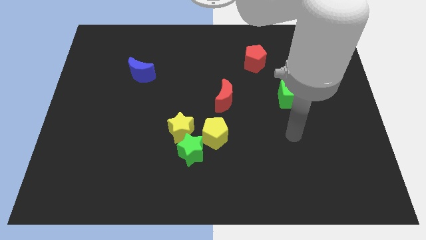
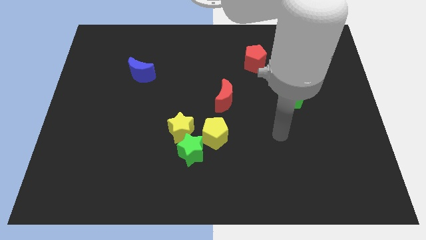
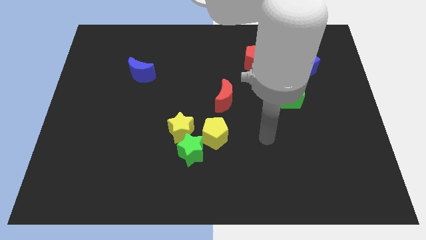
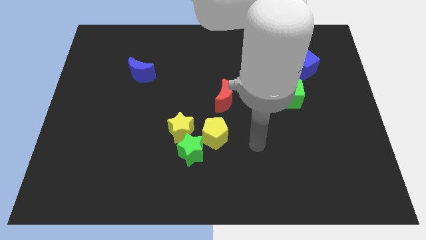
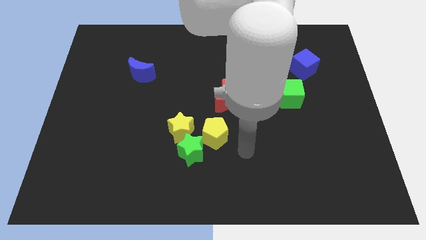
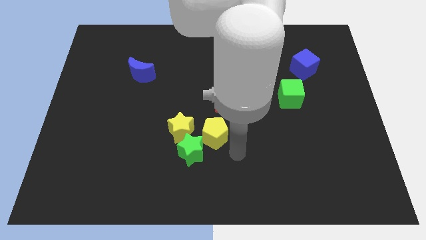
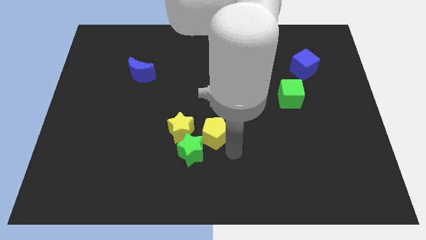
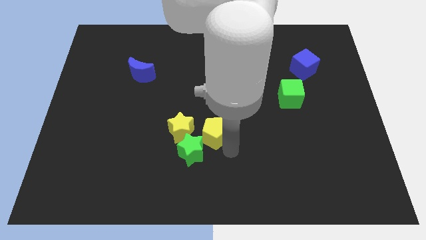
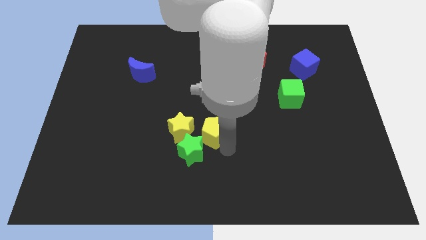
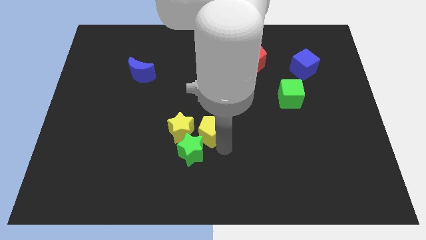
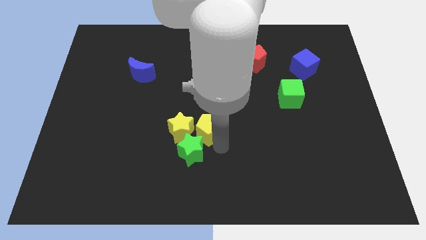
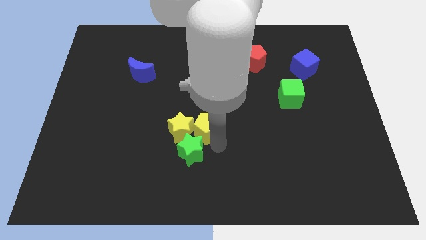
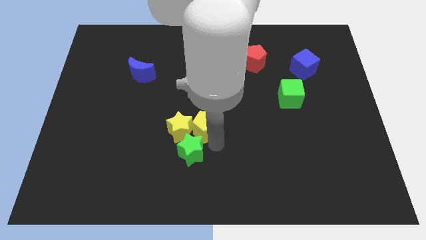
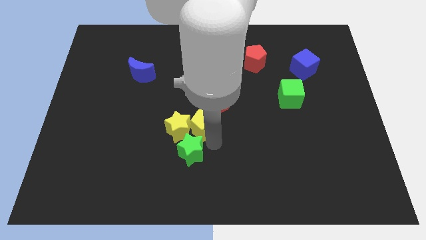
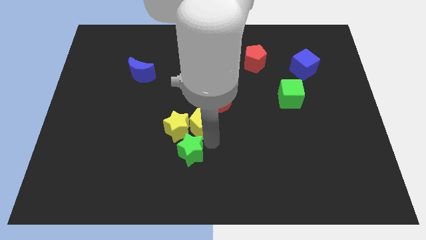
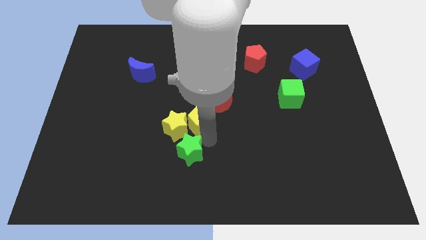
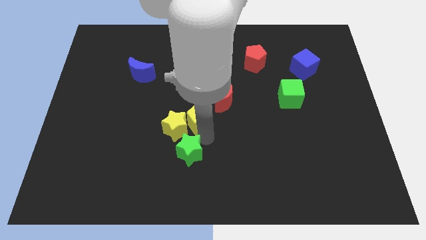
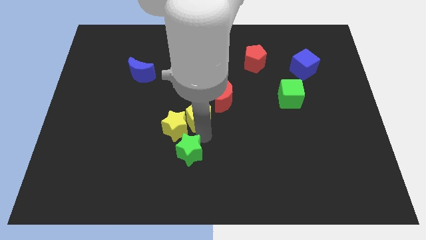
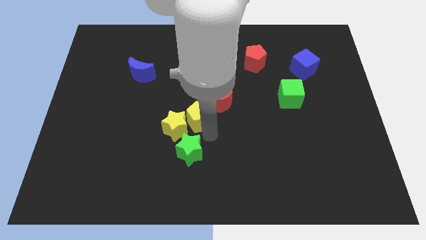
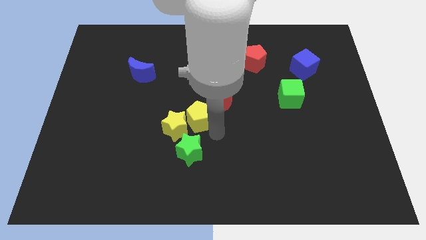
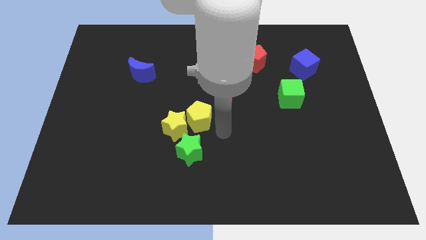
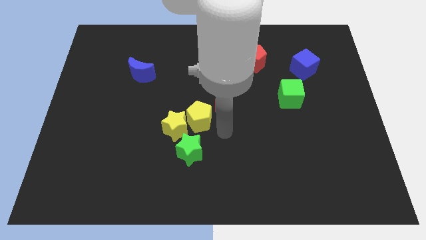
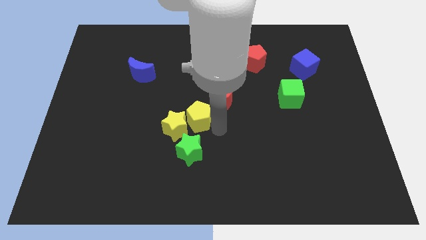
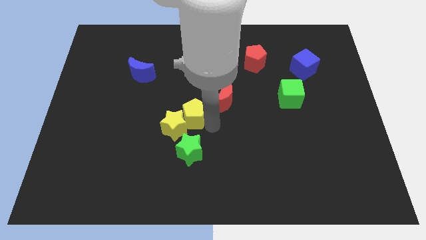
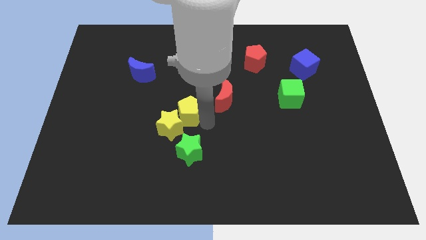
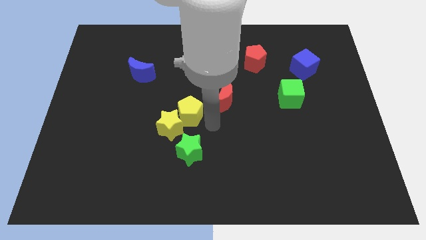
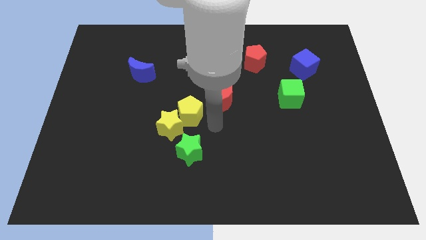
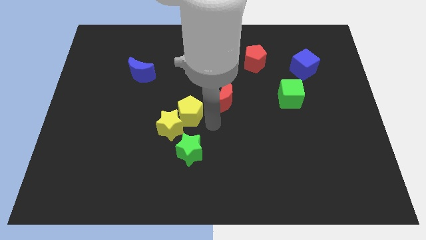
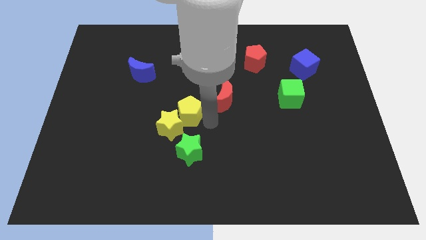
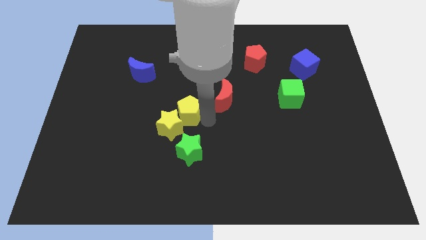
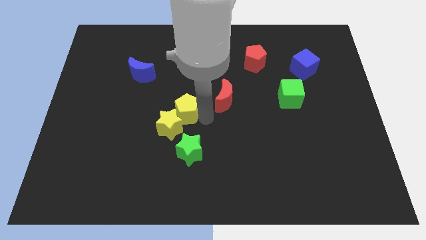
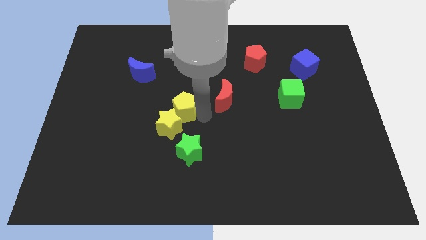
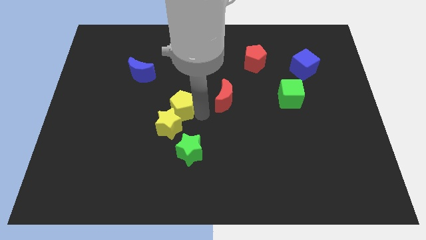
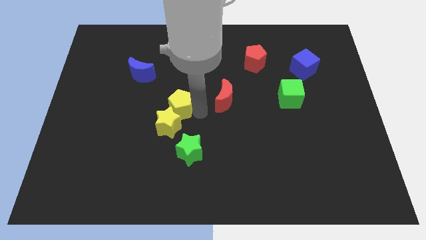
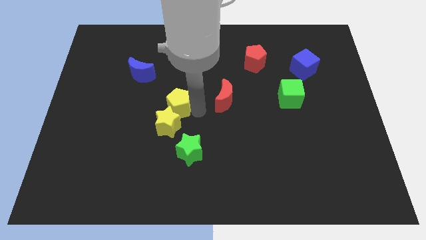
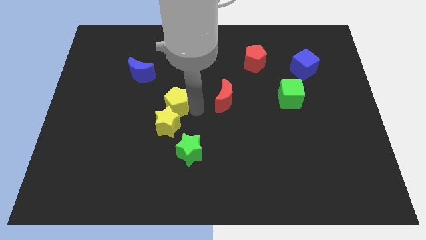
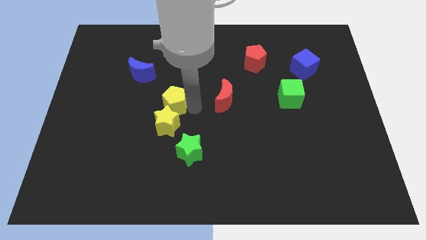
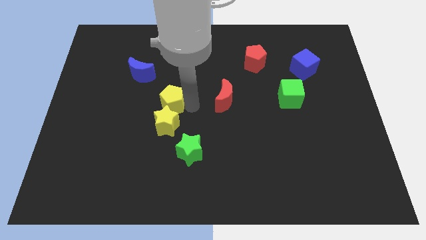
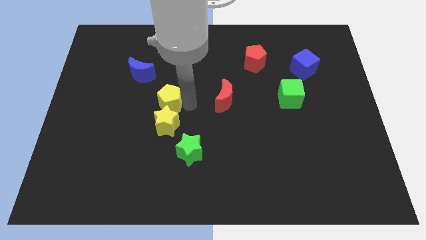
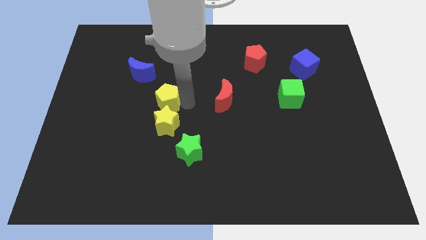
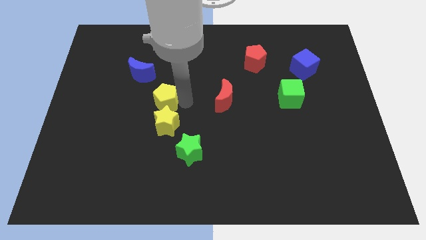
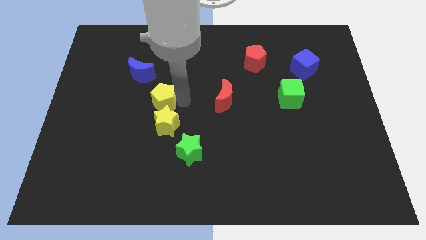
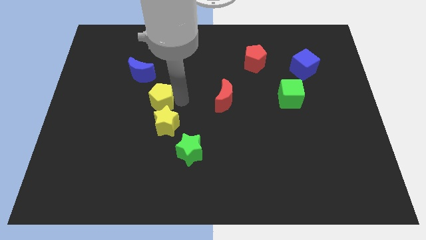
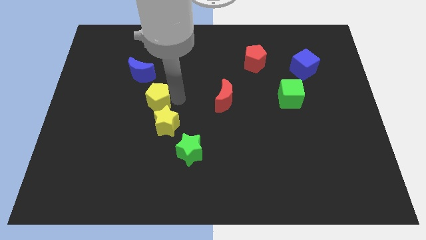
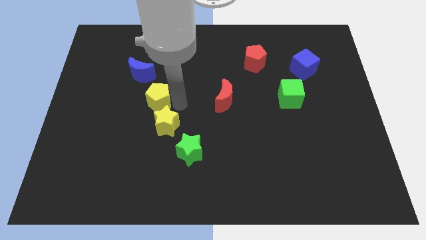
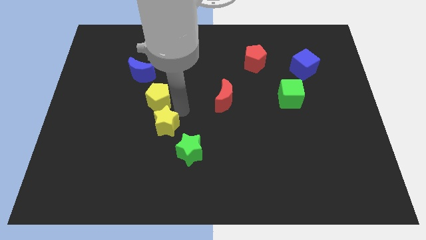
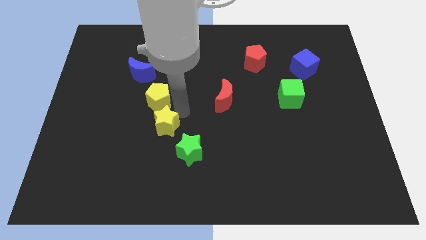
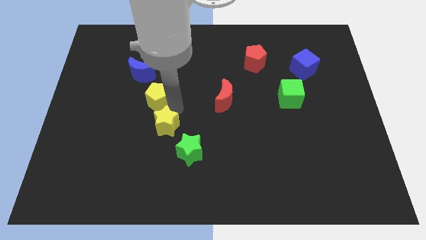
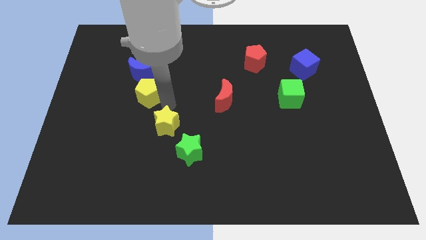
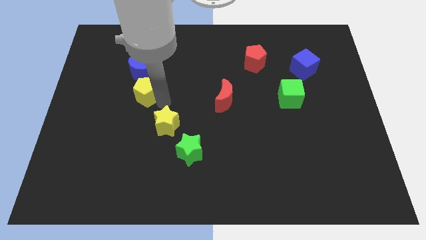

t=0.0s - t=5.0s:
slide the yellow pentagon upwards and to the left diagonally

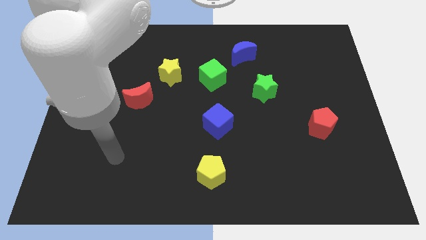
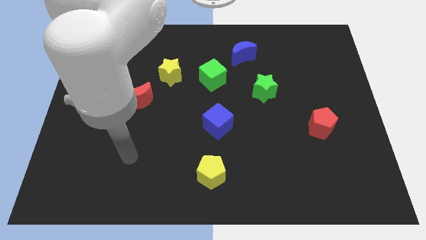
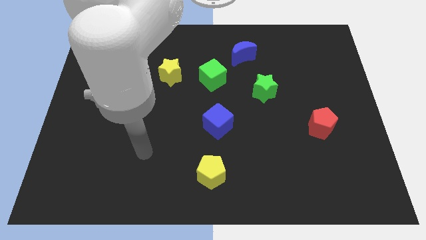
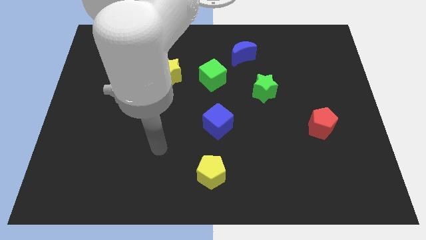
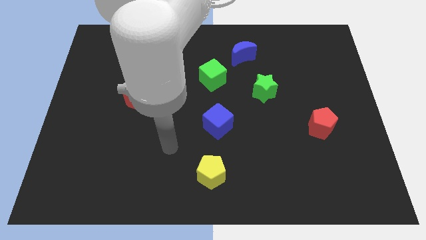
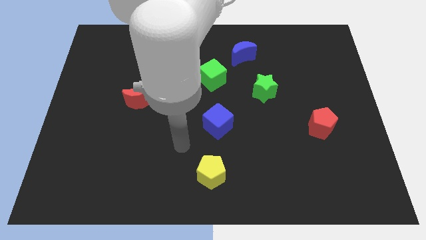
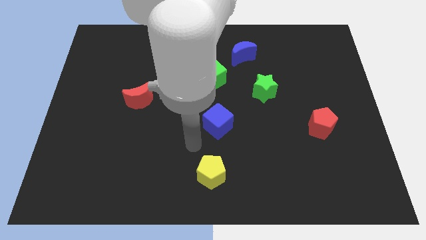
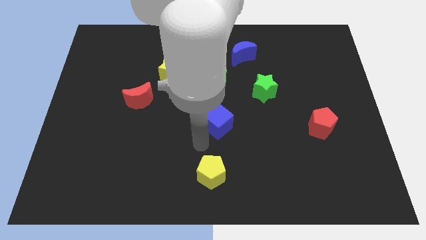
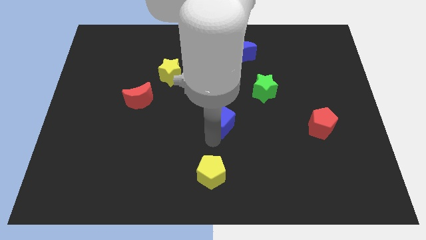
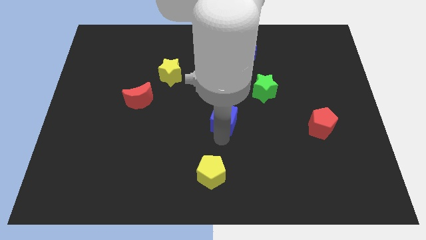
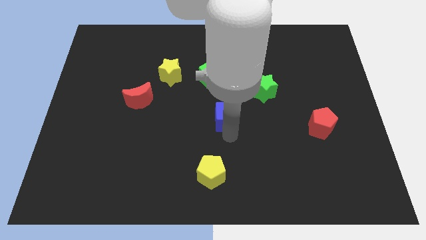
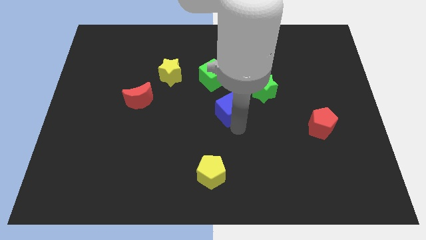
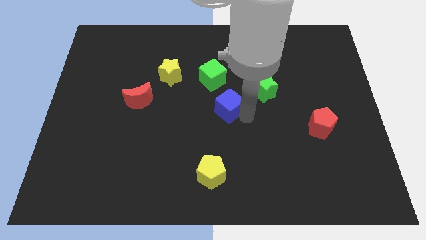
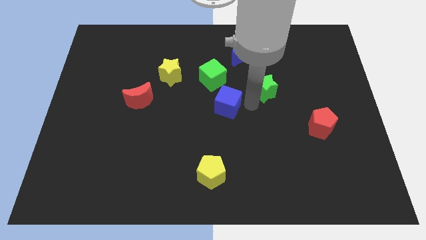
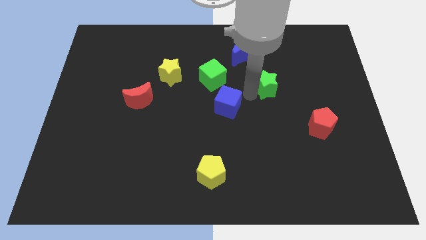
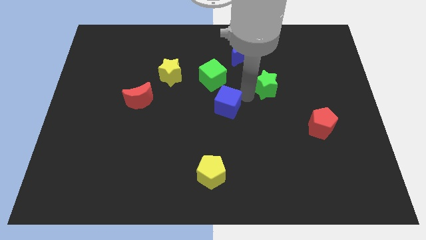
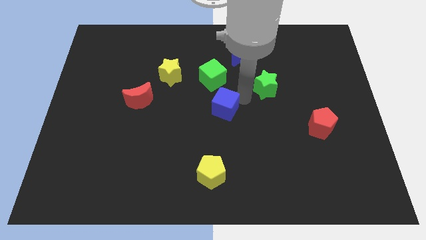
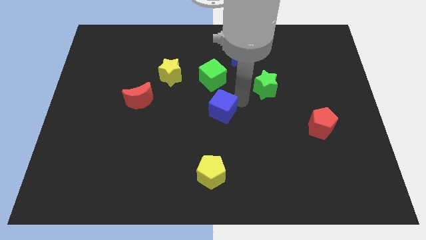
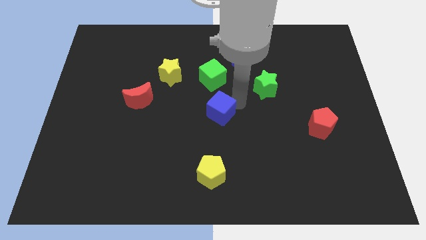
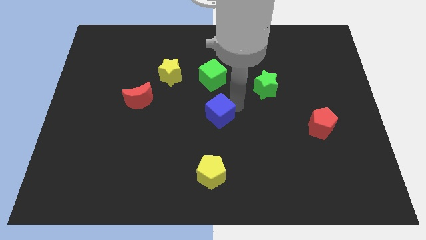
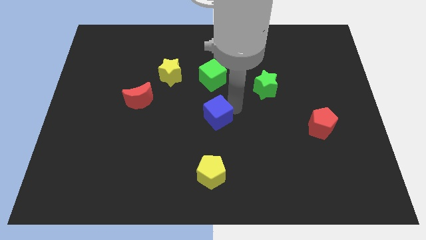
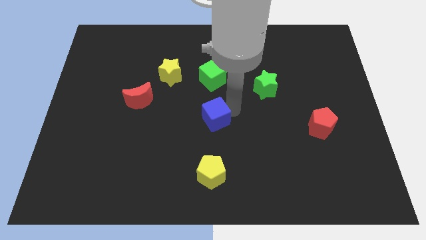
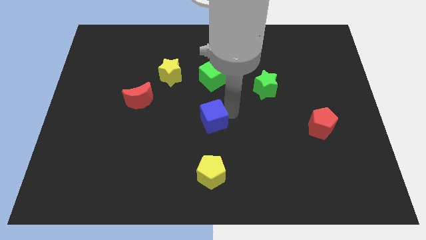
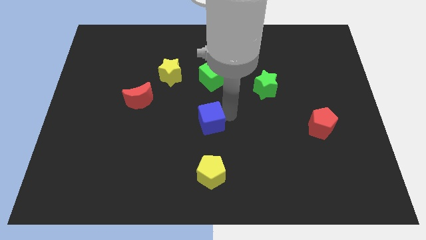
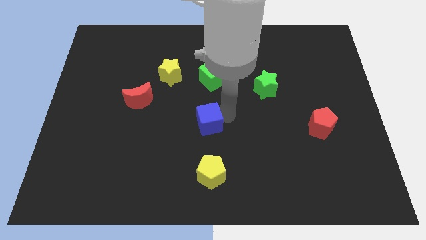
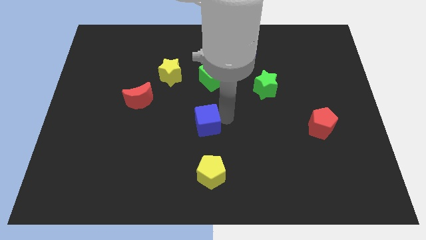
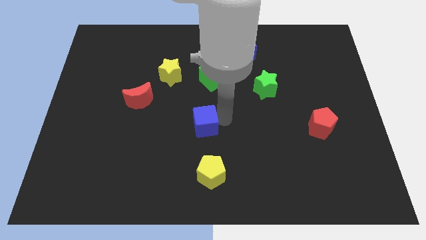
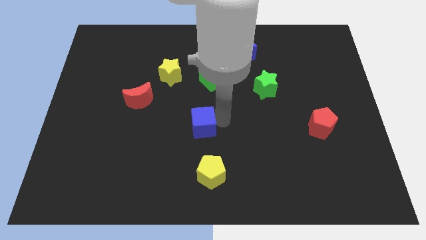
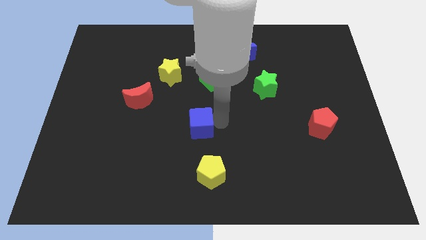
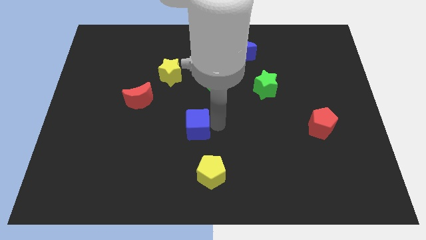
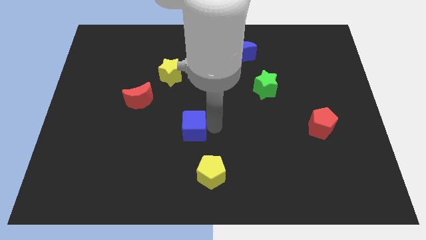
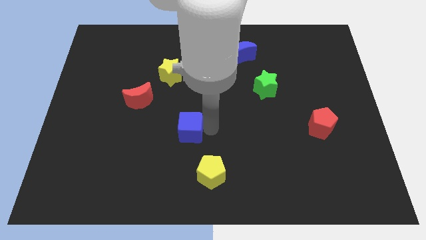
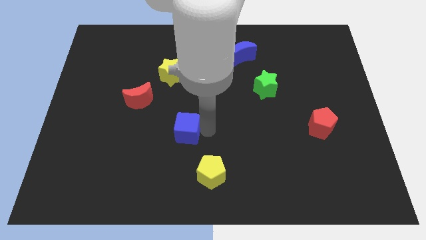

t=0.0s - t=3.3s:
slide the blue cube a bit to the left
